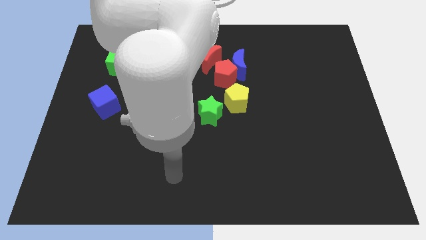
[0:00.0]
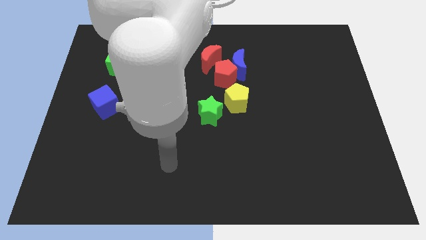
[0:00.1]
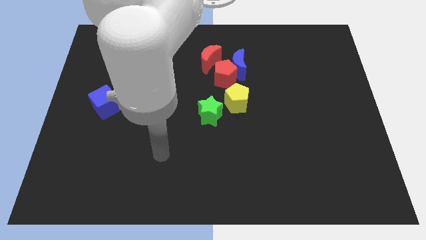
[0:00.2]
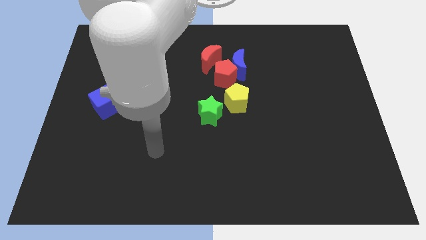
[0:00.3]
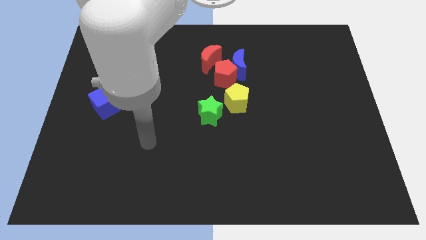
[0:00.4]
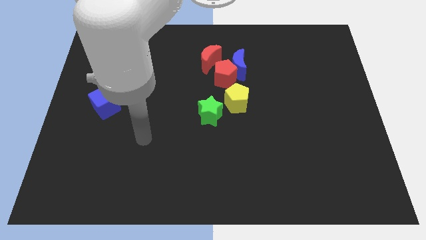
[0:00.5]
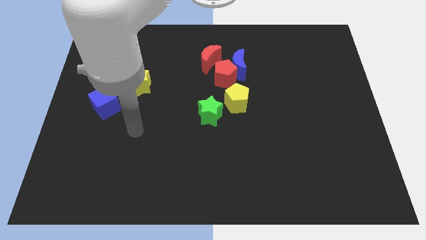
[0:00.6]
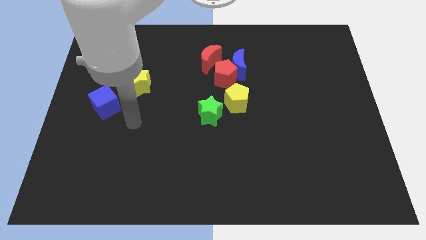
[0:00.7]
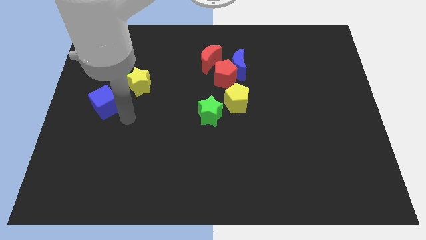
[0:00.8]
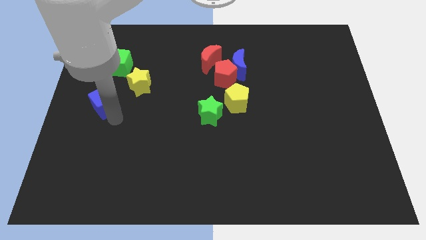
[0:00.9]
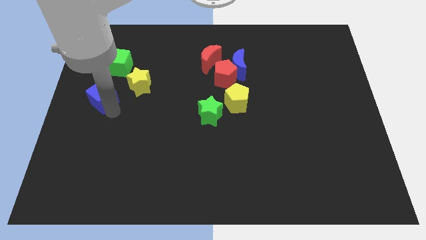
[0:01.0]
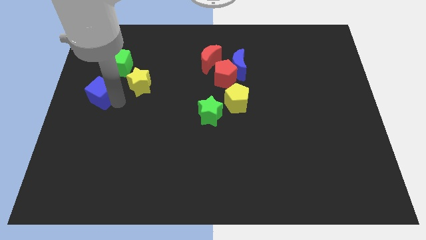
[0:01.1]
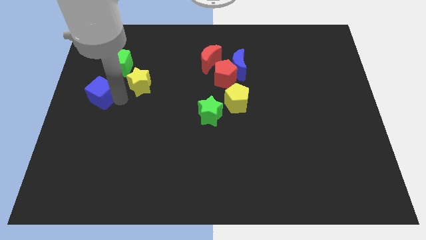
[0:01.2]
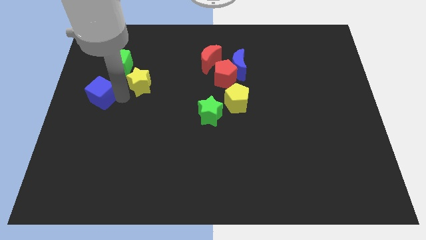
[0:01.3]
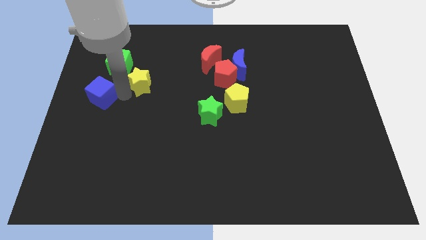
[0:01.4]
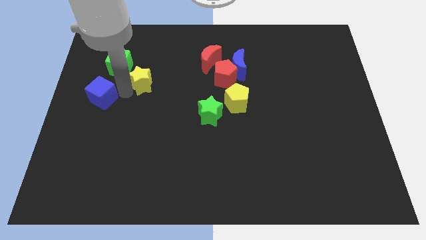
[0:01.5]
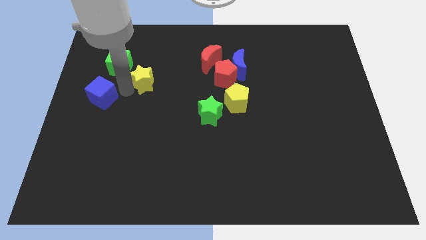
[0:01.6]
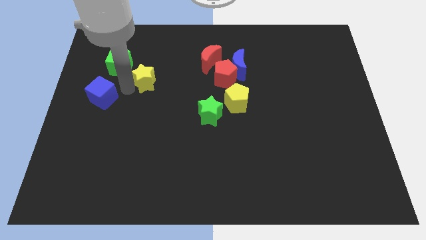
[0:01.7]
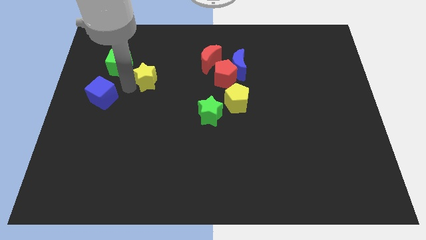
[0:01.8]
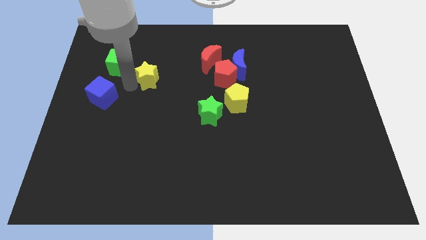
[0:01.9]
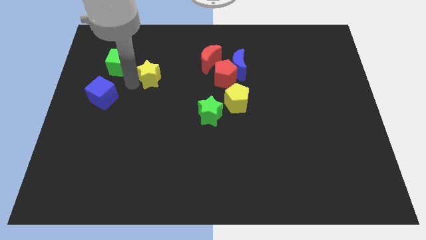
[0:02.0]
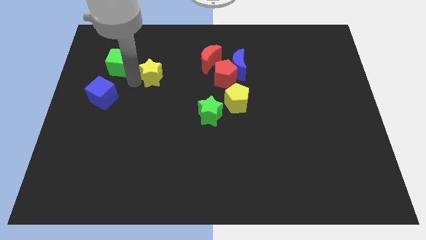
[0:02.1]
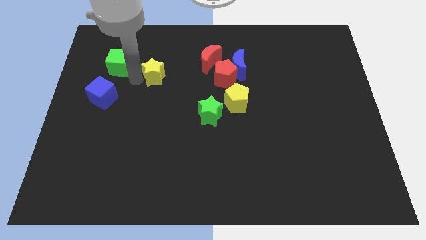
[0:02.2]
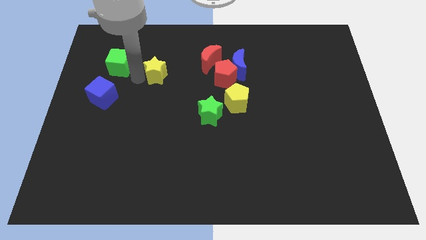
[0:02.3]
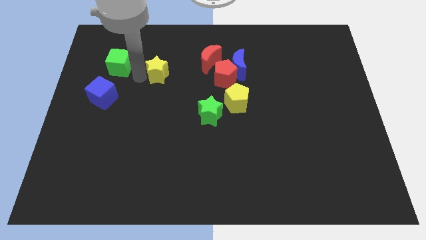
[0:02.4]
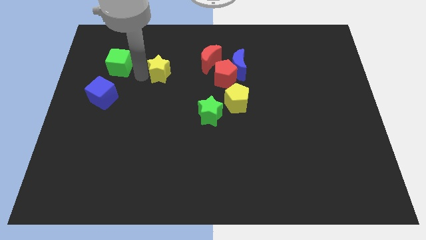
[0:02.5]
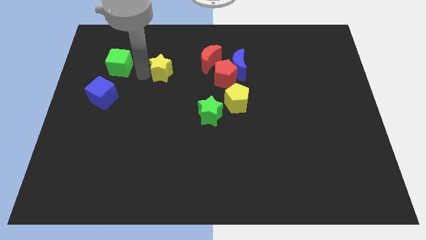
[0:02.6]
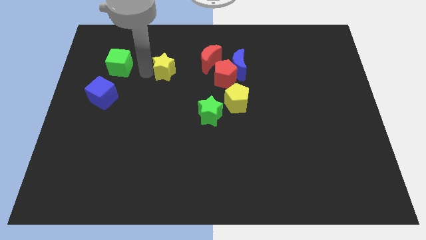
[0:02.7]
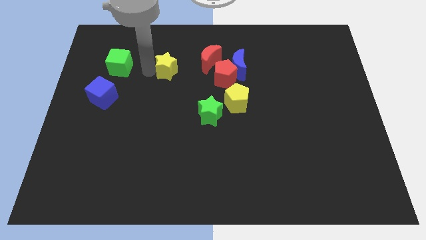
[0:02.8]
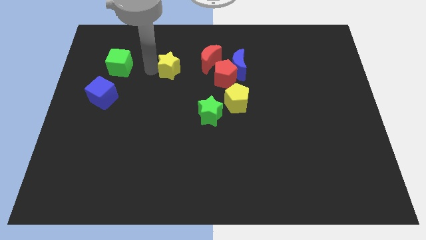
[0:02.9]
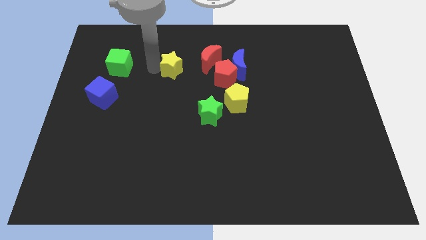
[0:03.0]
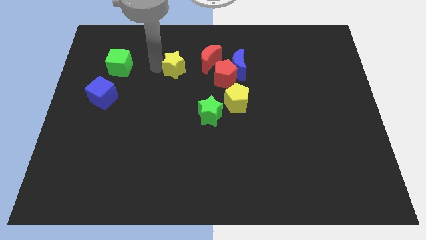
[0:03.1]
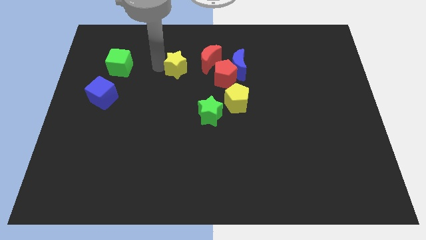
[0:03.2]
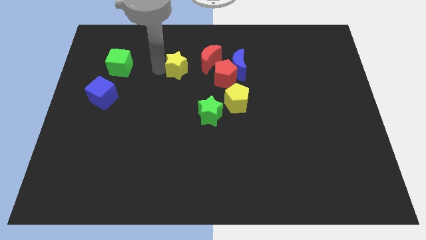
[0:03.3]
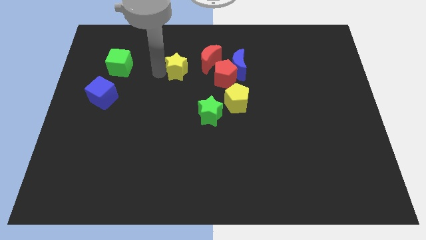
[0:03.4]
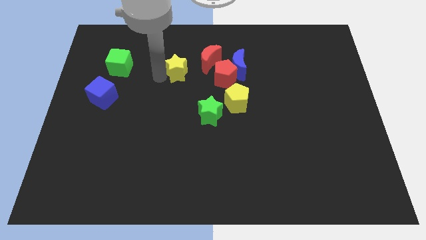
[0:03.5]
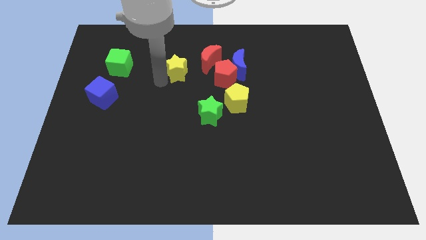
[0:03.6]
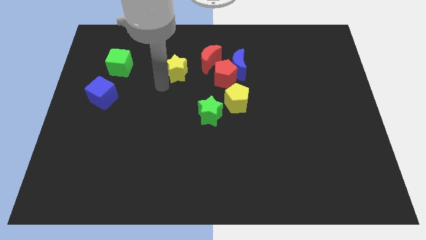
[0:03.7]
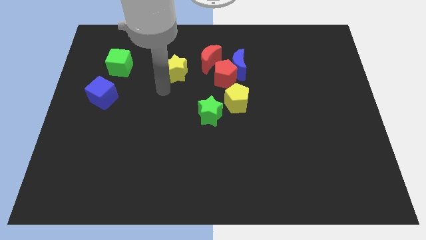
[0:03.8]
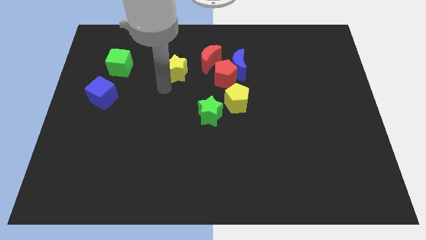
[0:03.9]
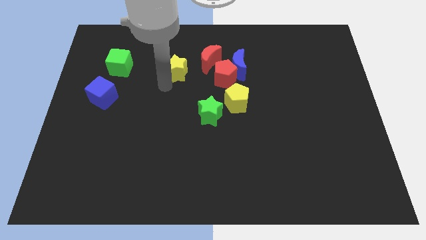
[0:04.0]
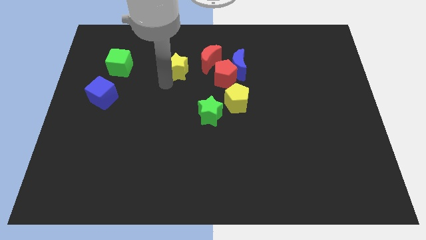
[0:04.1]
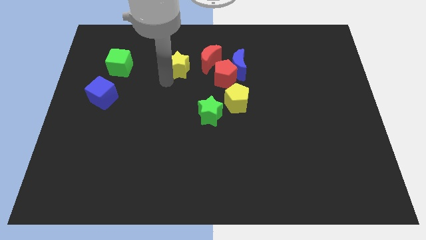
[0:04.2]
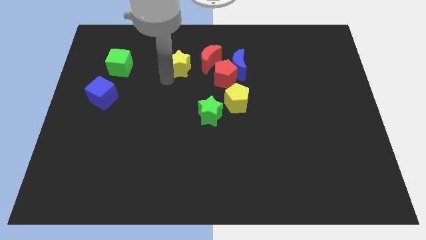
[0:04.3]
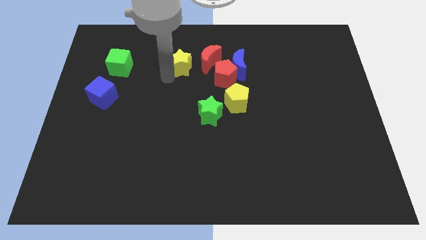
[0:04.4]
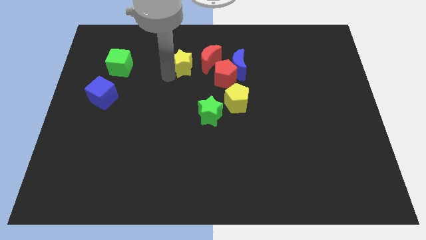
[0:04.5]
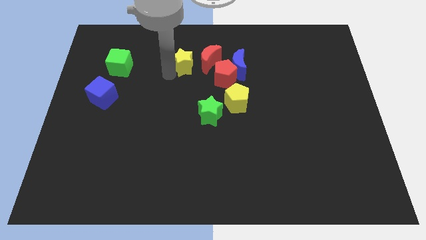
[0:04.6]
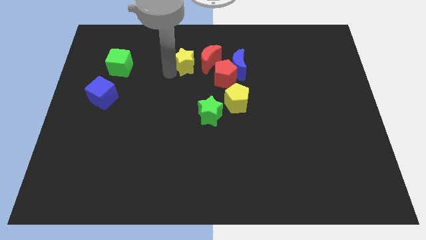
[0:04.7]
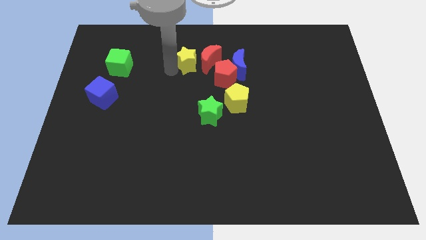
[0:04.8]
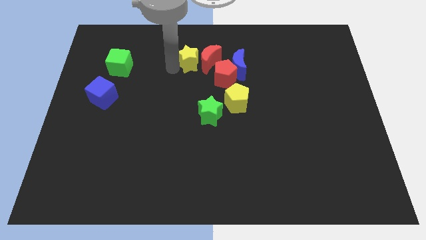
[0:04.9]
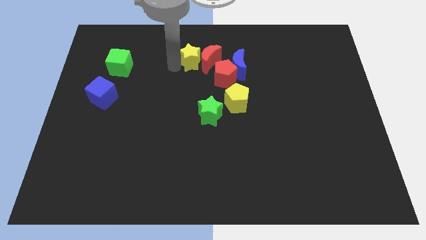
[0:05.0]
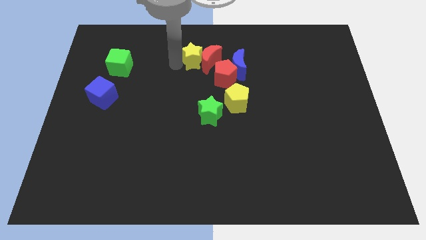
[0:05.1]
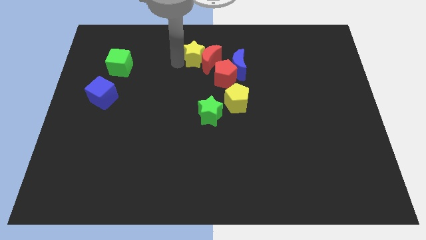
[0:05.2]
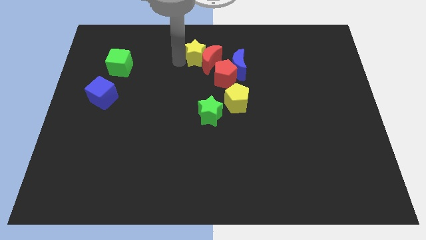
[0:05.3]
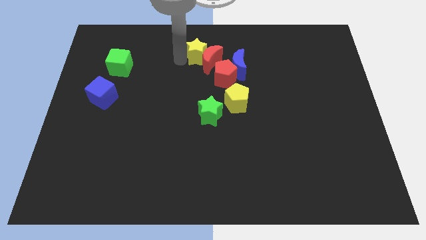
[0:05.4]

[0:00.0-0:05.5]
move the yellow star to the top side
